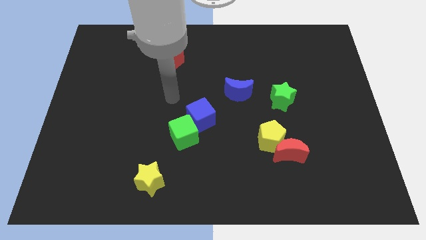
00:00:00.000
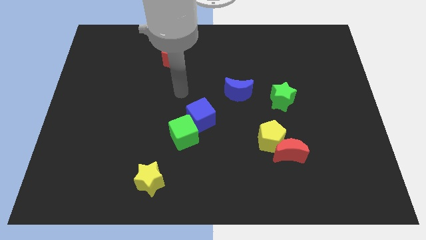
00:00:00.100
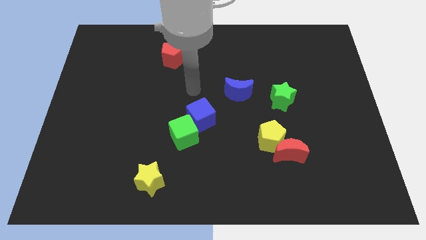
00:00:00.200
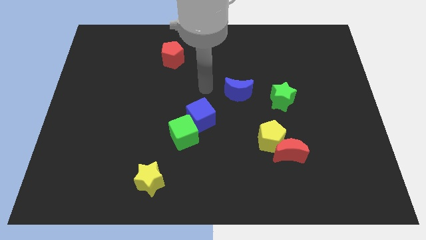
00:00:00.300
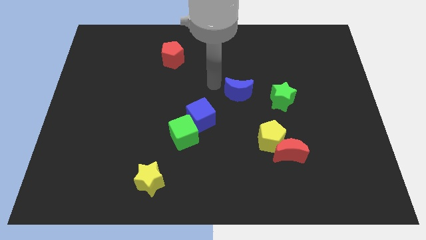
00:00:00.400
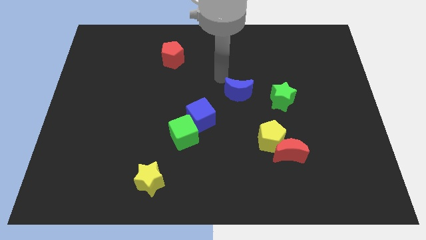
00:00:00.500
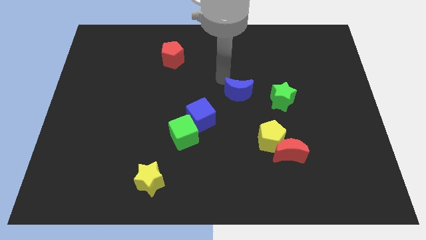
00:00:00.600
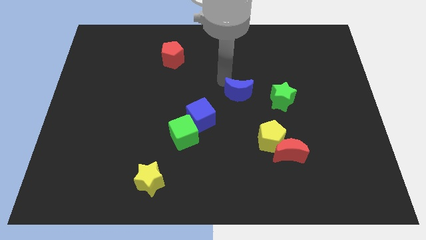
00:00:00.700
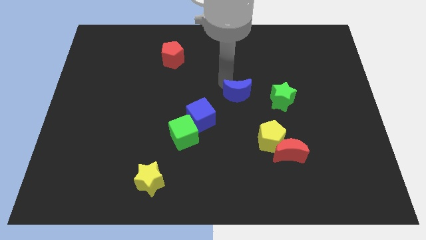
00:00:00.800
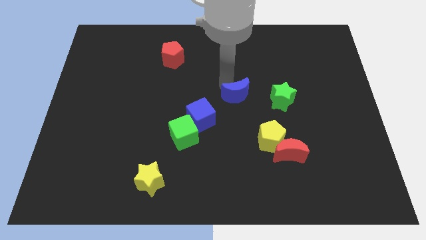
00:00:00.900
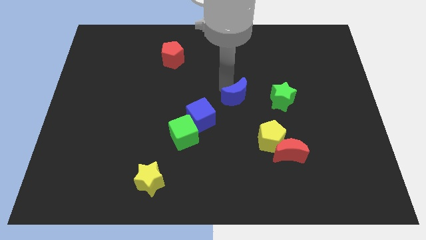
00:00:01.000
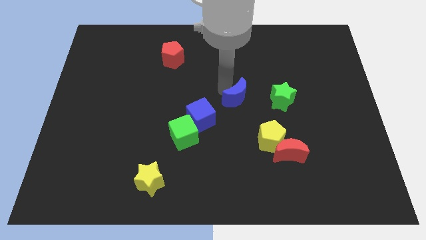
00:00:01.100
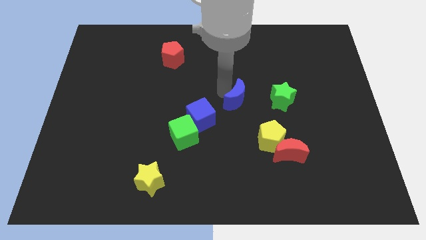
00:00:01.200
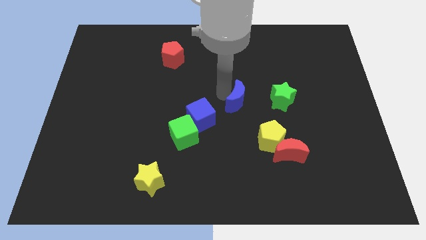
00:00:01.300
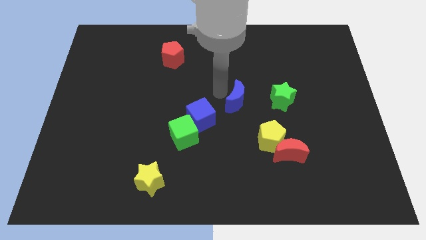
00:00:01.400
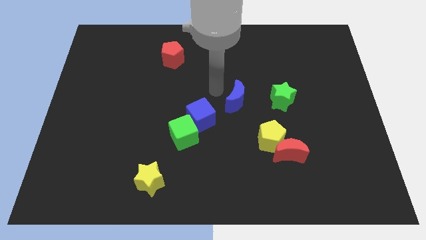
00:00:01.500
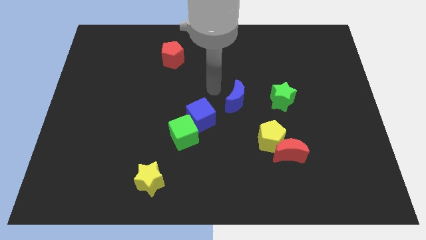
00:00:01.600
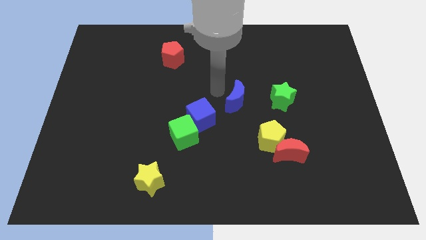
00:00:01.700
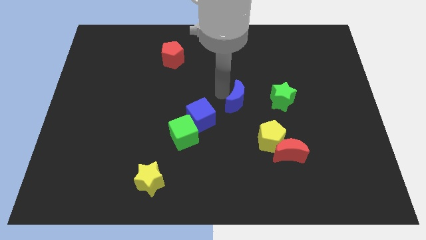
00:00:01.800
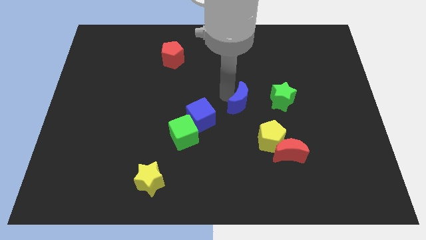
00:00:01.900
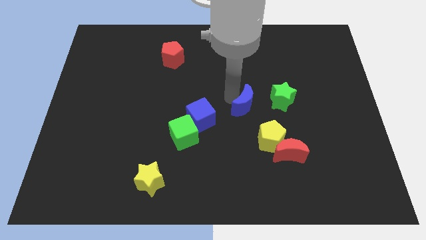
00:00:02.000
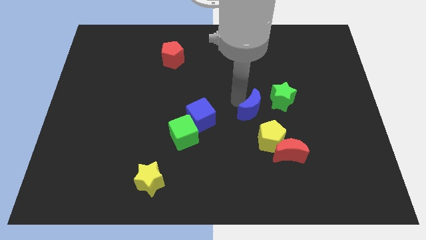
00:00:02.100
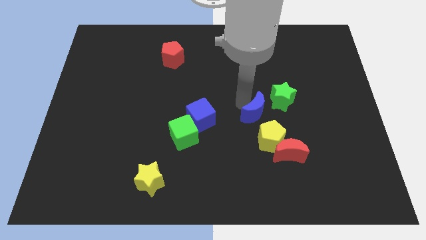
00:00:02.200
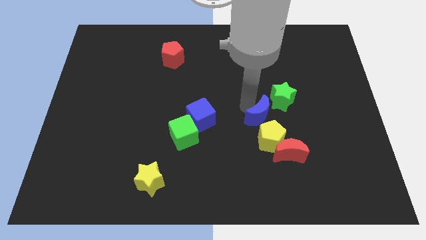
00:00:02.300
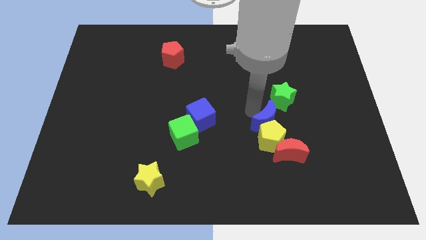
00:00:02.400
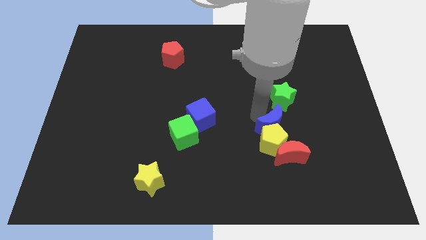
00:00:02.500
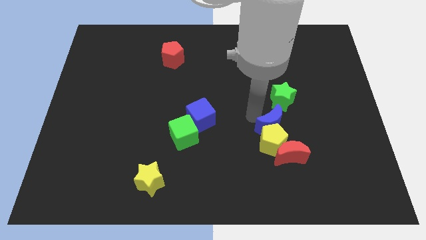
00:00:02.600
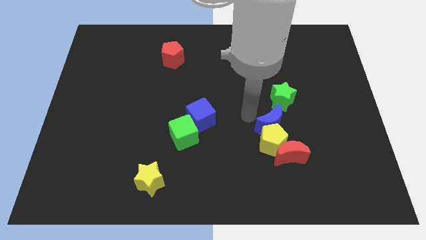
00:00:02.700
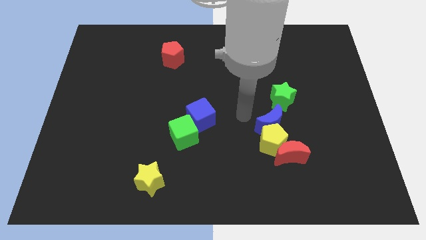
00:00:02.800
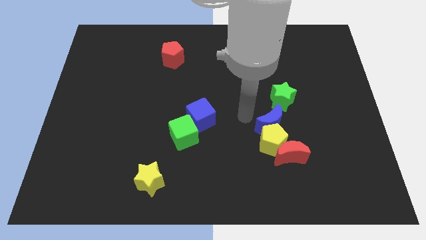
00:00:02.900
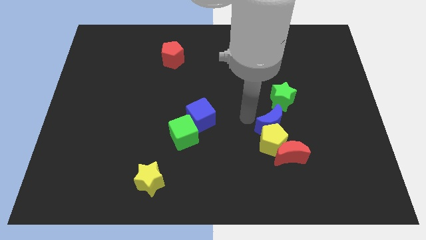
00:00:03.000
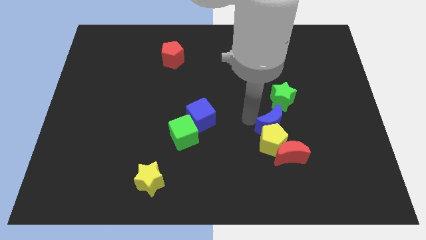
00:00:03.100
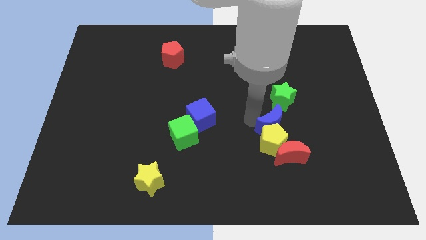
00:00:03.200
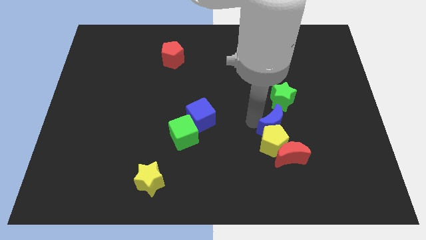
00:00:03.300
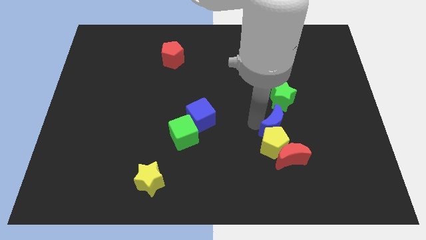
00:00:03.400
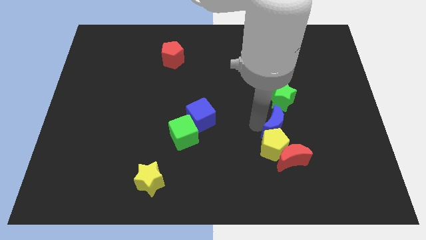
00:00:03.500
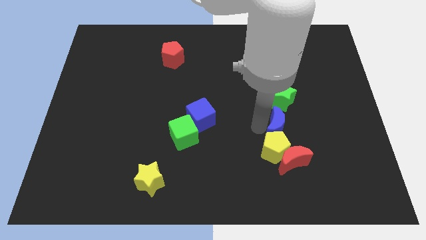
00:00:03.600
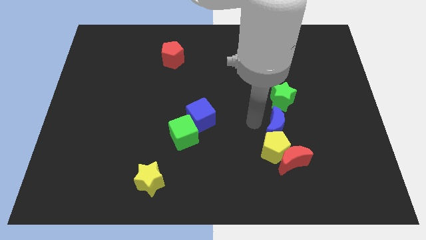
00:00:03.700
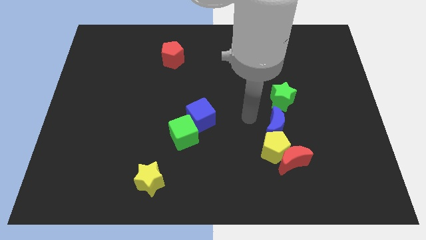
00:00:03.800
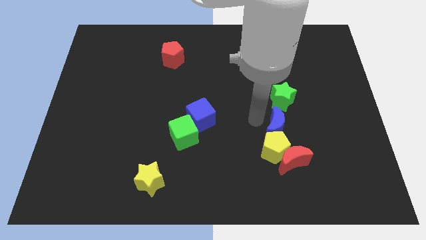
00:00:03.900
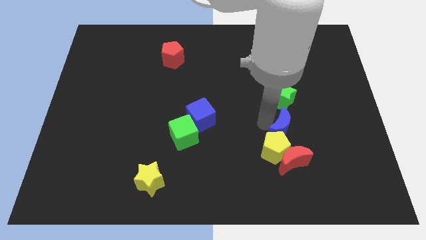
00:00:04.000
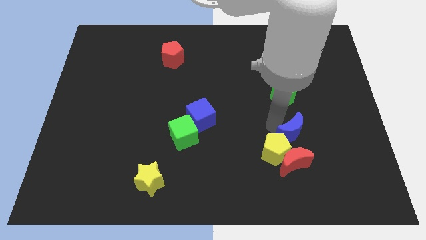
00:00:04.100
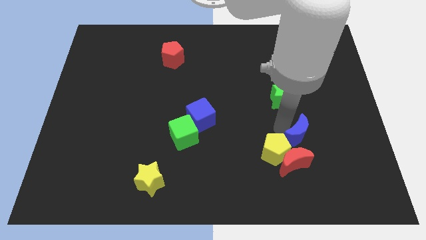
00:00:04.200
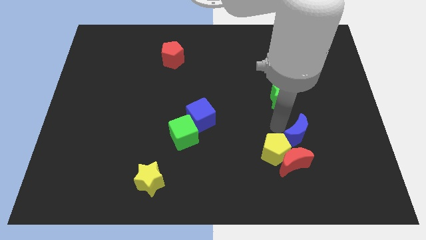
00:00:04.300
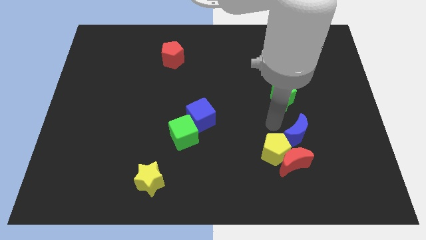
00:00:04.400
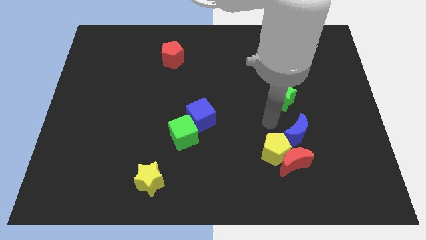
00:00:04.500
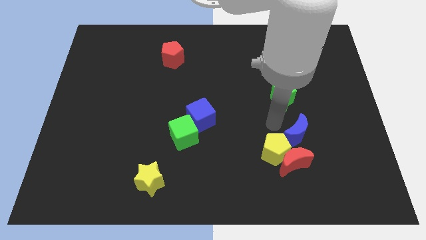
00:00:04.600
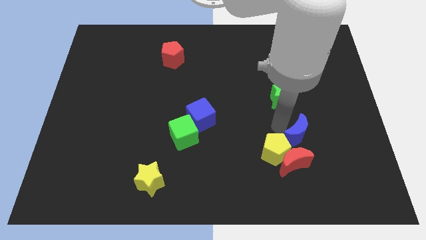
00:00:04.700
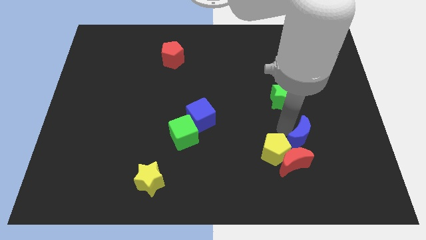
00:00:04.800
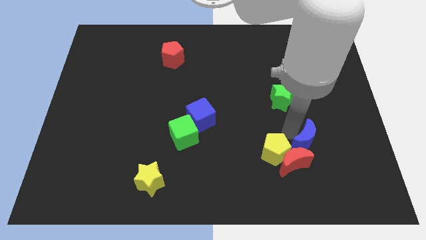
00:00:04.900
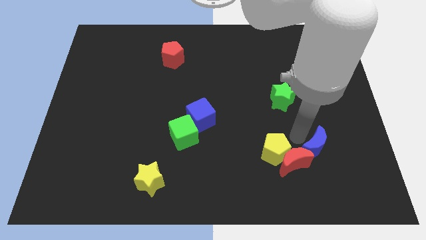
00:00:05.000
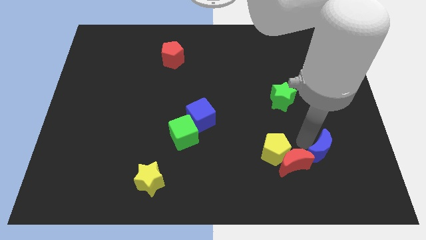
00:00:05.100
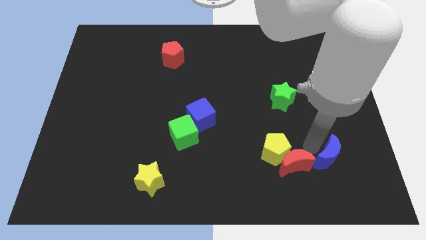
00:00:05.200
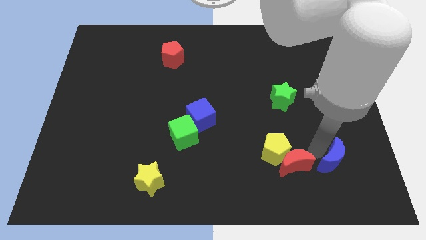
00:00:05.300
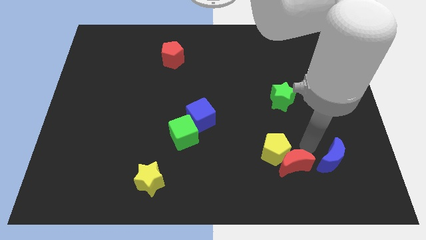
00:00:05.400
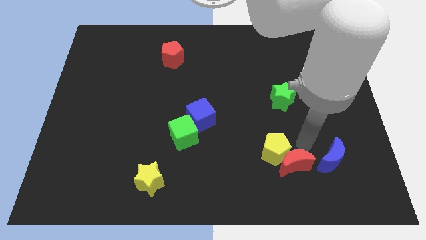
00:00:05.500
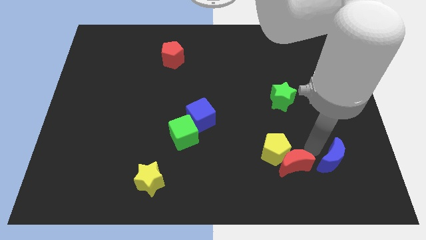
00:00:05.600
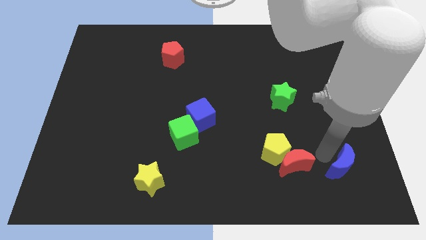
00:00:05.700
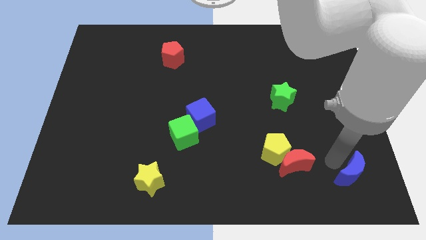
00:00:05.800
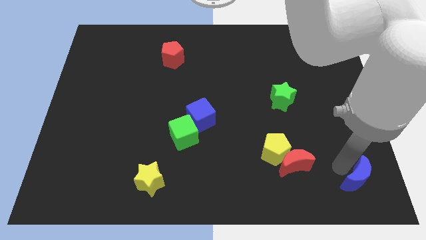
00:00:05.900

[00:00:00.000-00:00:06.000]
slide the blue moon to the lower right corner

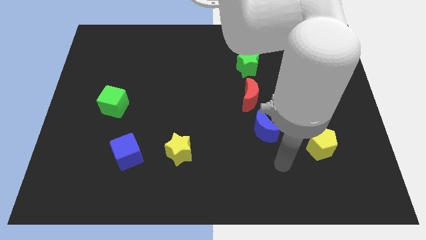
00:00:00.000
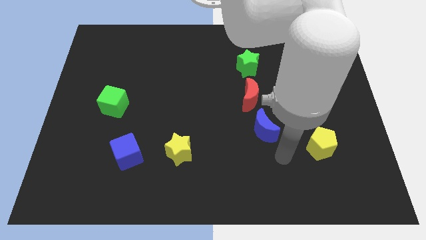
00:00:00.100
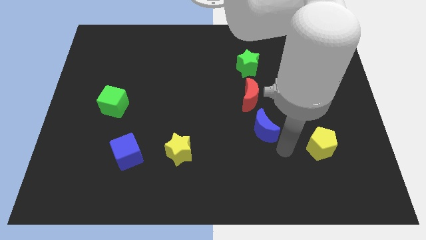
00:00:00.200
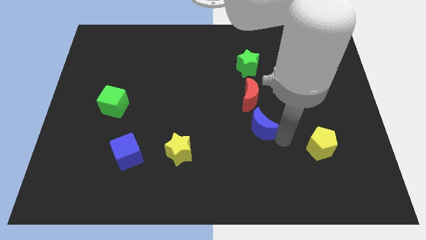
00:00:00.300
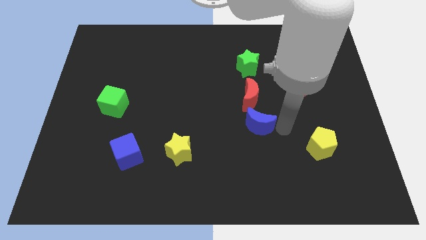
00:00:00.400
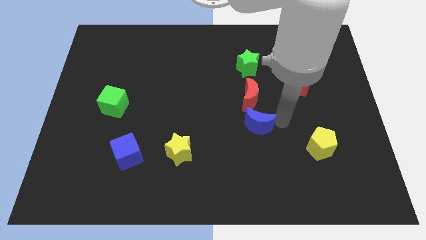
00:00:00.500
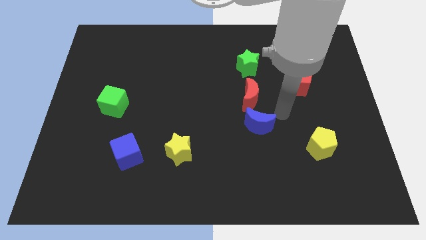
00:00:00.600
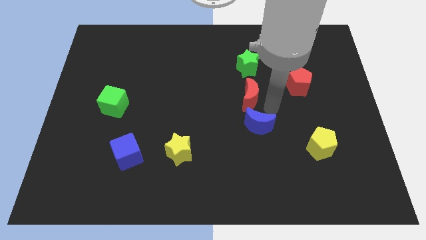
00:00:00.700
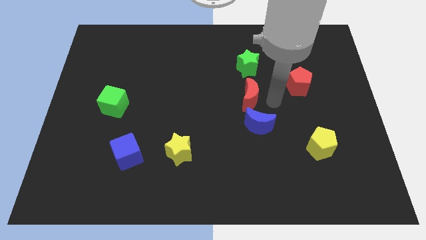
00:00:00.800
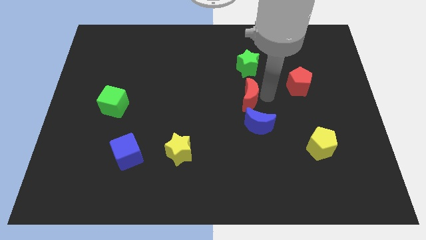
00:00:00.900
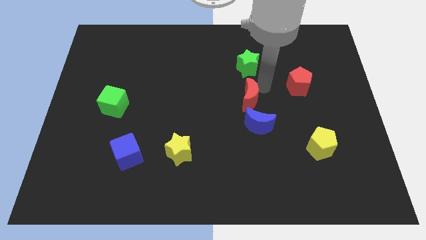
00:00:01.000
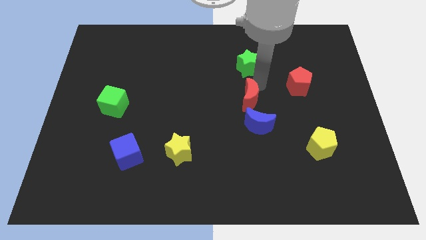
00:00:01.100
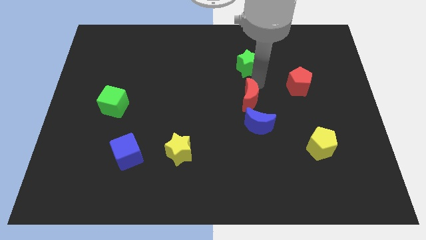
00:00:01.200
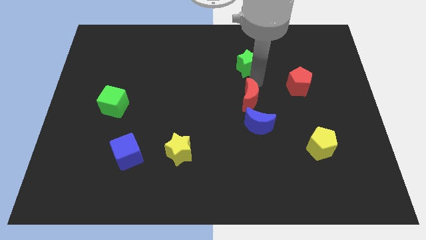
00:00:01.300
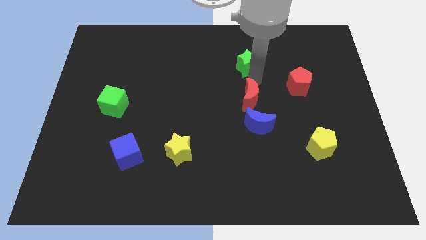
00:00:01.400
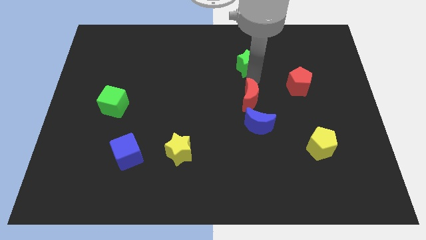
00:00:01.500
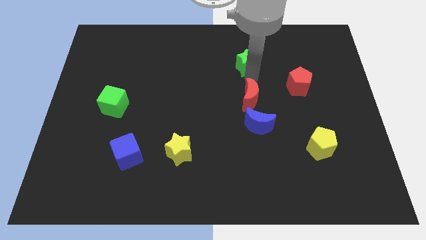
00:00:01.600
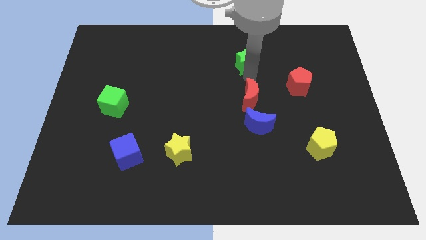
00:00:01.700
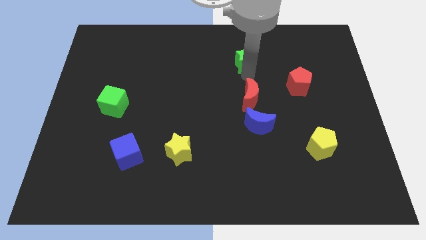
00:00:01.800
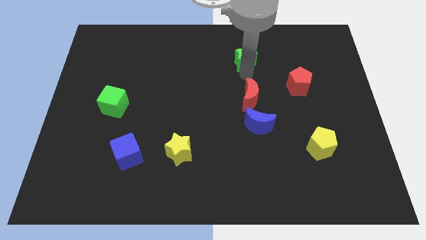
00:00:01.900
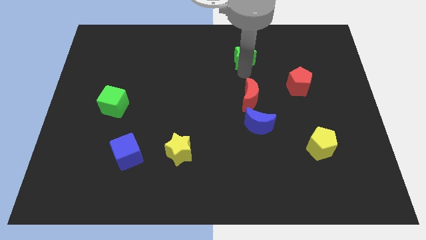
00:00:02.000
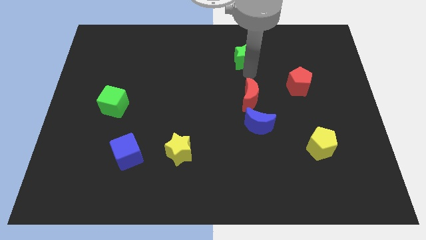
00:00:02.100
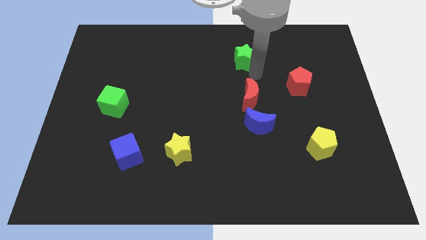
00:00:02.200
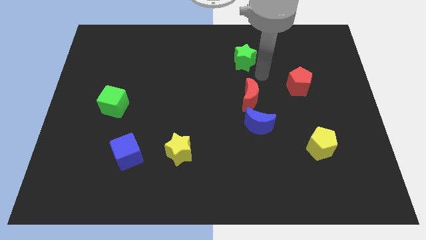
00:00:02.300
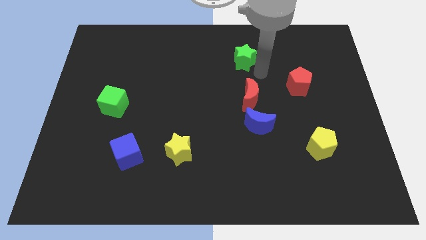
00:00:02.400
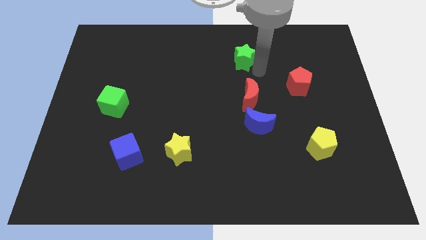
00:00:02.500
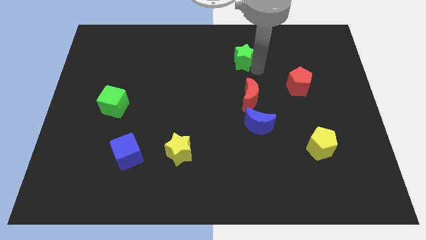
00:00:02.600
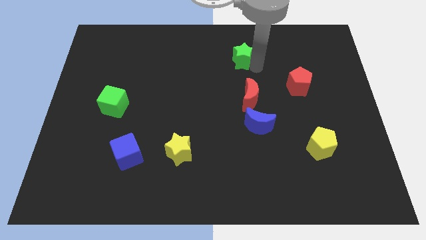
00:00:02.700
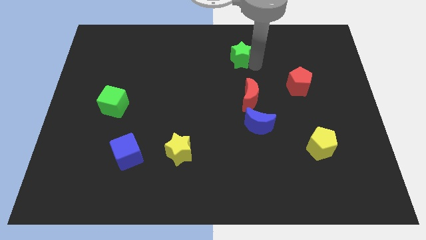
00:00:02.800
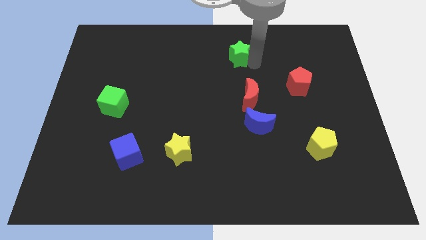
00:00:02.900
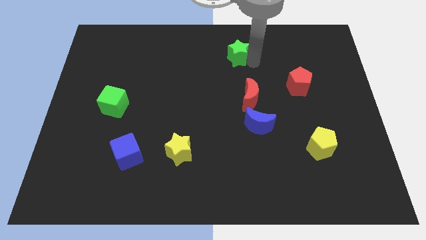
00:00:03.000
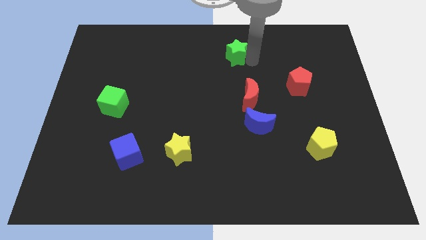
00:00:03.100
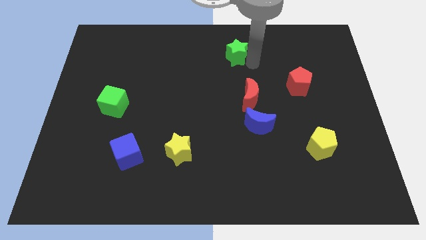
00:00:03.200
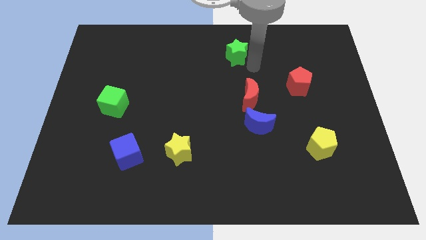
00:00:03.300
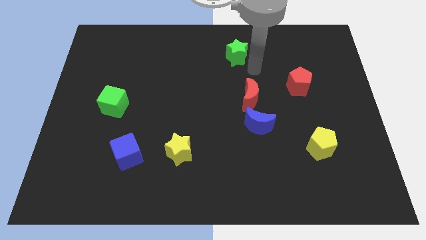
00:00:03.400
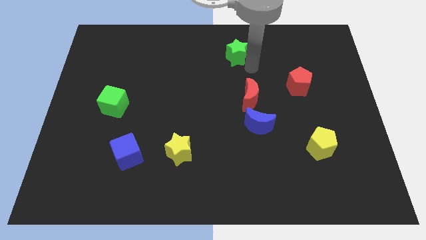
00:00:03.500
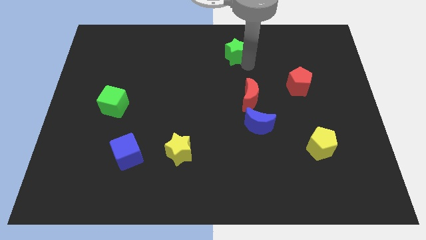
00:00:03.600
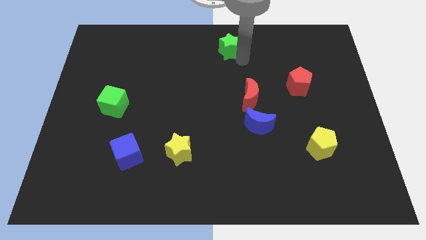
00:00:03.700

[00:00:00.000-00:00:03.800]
move the green star to the top side
